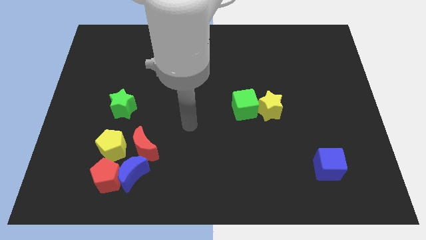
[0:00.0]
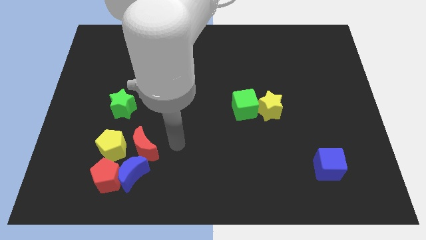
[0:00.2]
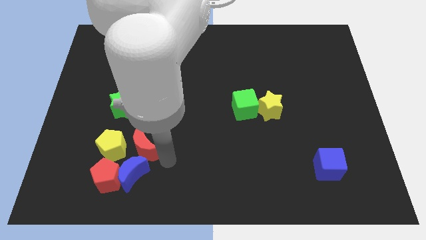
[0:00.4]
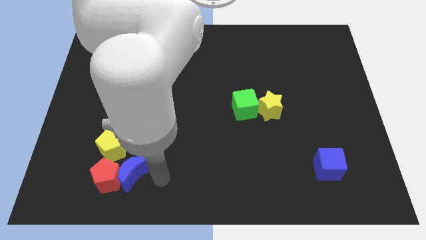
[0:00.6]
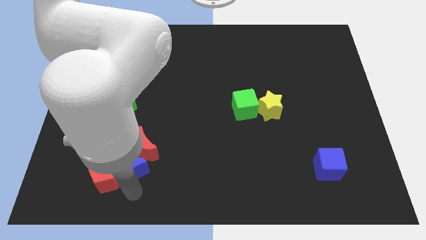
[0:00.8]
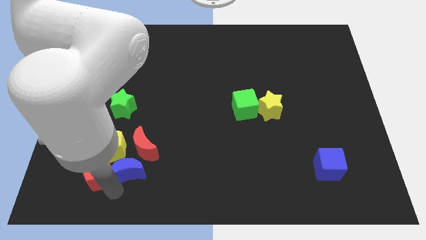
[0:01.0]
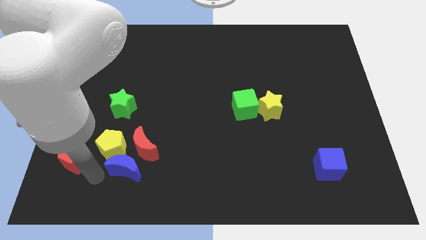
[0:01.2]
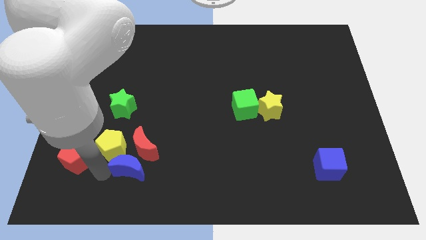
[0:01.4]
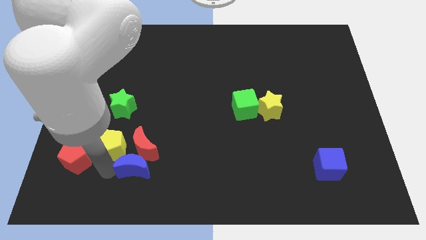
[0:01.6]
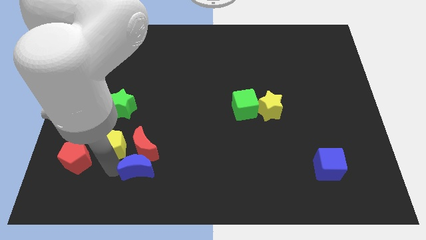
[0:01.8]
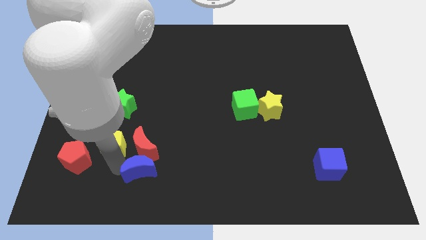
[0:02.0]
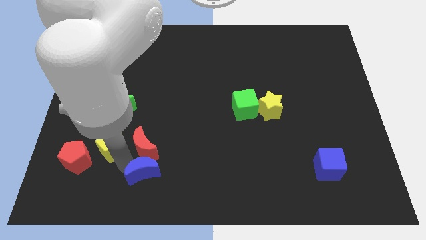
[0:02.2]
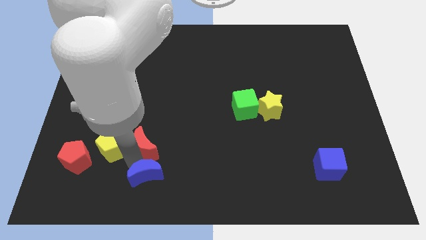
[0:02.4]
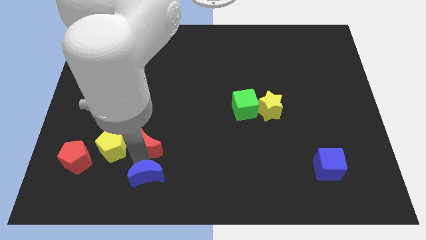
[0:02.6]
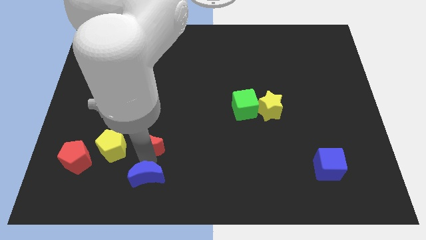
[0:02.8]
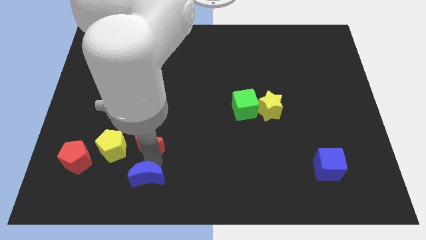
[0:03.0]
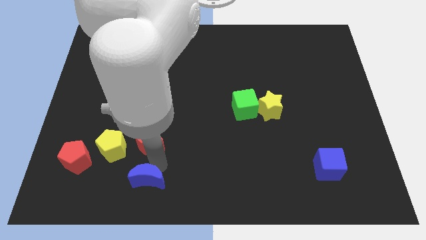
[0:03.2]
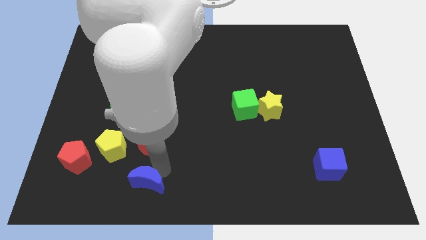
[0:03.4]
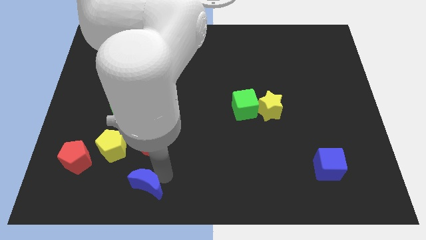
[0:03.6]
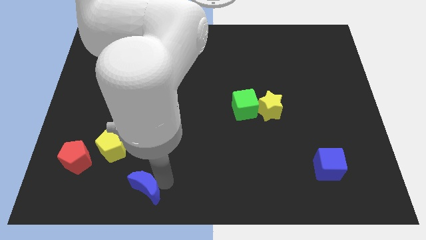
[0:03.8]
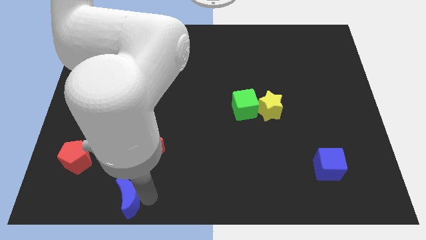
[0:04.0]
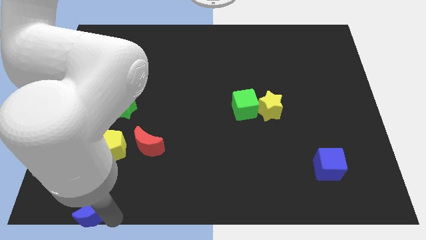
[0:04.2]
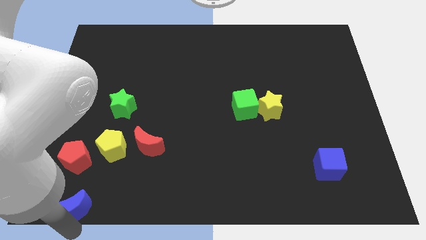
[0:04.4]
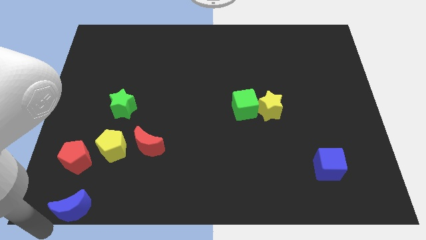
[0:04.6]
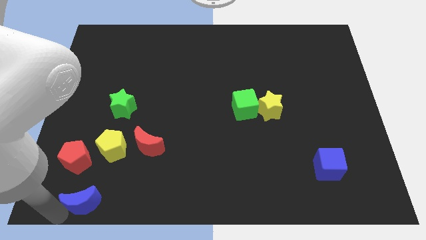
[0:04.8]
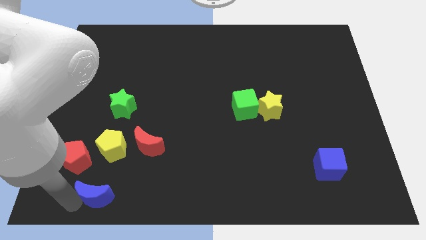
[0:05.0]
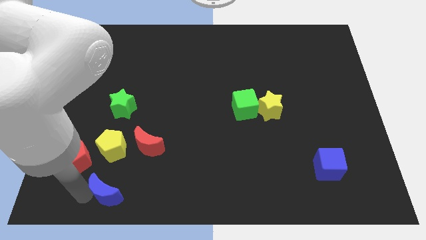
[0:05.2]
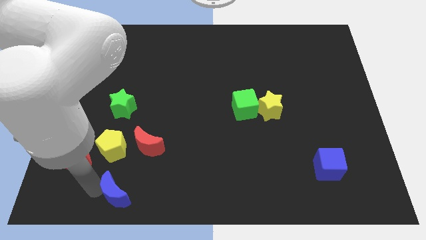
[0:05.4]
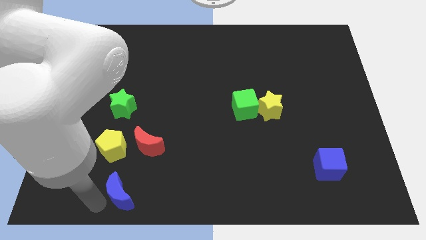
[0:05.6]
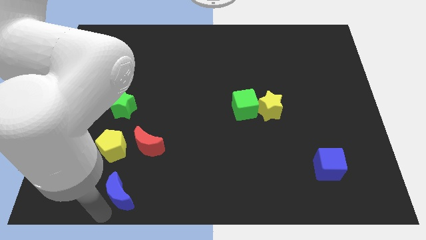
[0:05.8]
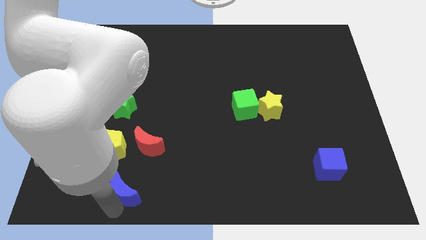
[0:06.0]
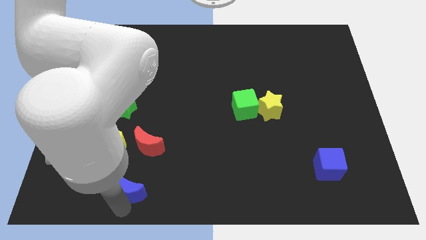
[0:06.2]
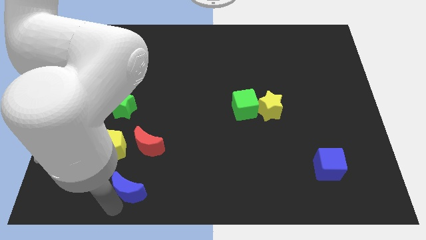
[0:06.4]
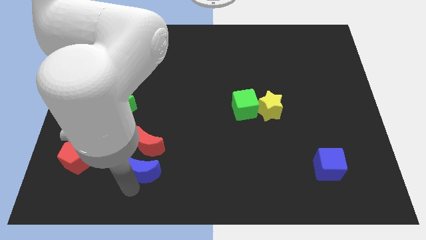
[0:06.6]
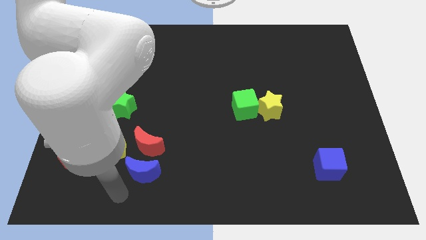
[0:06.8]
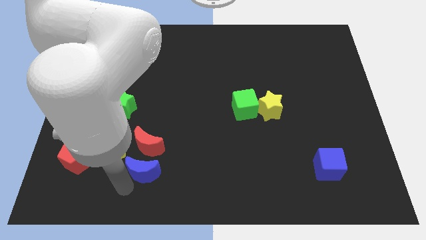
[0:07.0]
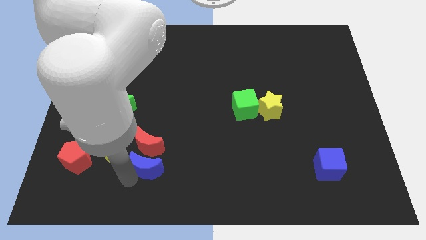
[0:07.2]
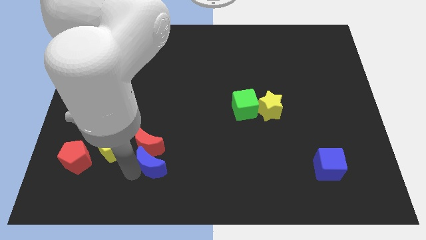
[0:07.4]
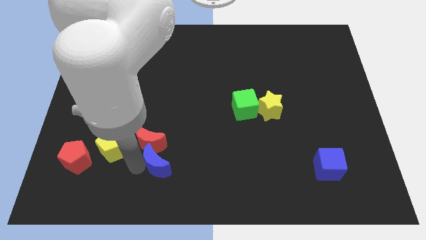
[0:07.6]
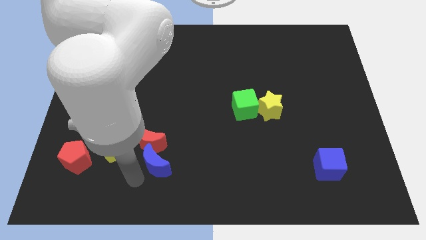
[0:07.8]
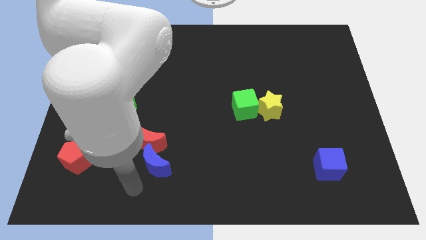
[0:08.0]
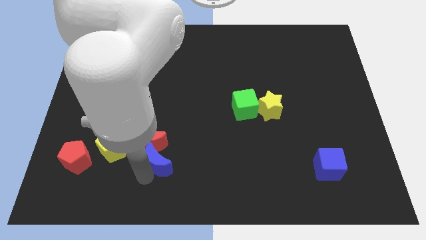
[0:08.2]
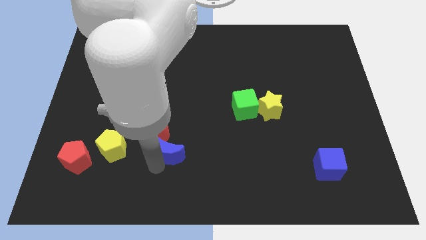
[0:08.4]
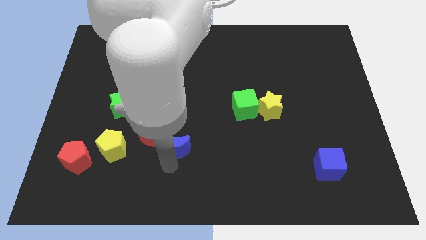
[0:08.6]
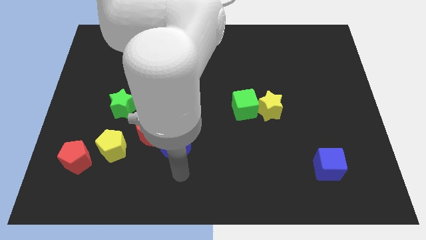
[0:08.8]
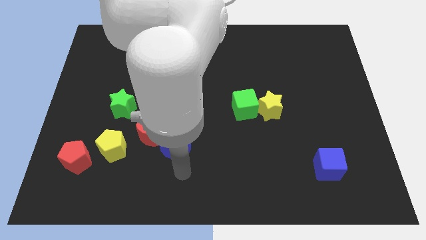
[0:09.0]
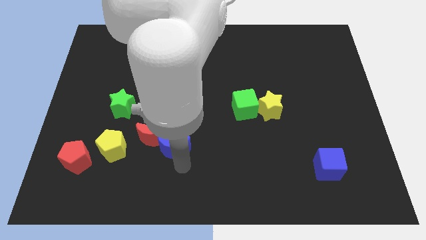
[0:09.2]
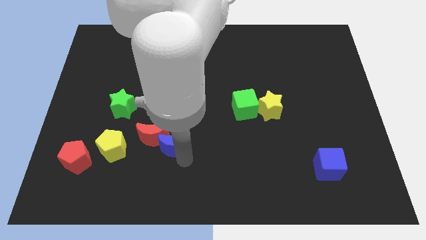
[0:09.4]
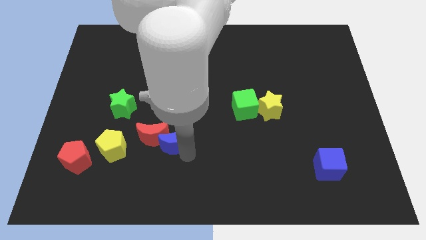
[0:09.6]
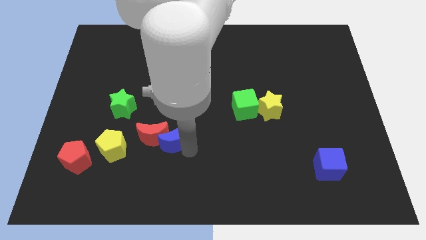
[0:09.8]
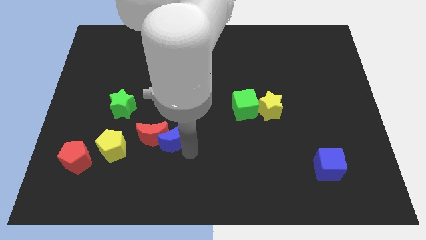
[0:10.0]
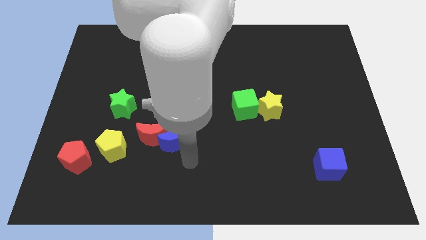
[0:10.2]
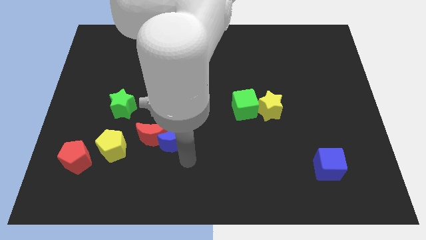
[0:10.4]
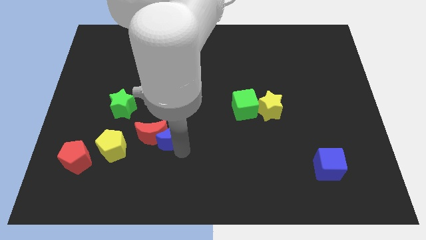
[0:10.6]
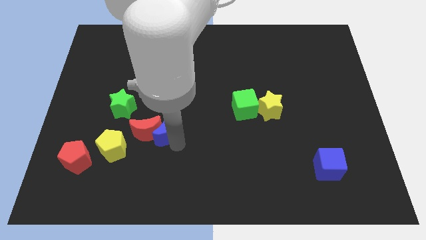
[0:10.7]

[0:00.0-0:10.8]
slide the blue moon somewhat up

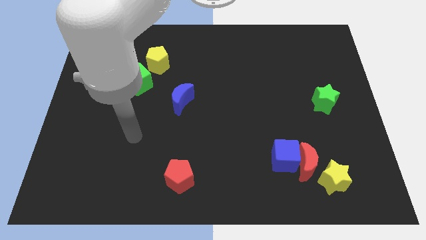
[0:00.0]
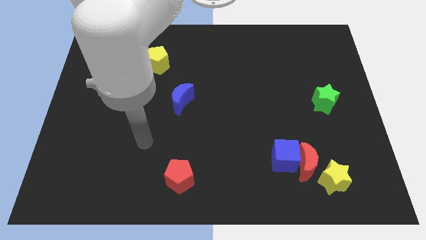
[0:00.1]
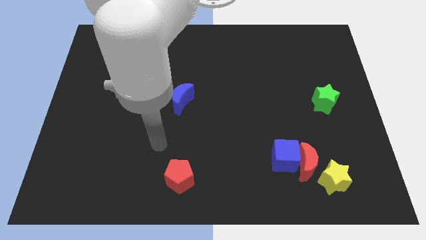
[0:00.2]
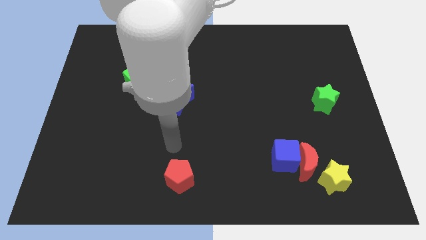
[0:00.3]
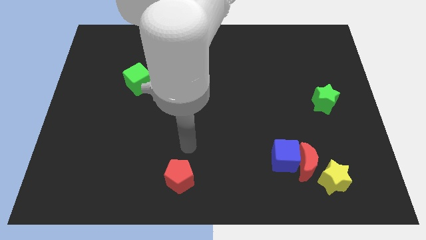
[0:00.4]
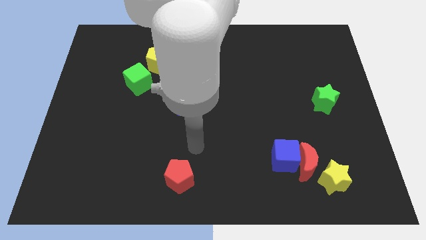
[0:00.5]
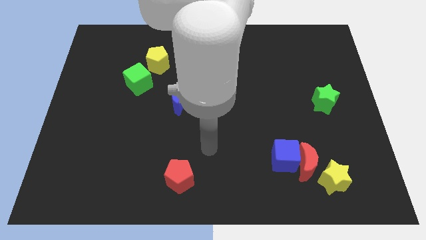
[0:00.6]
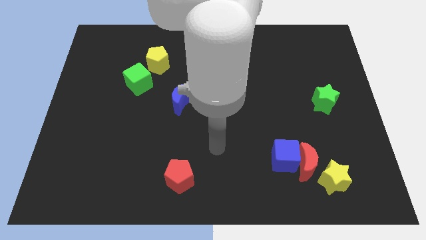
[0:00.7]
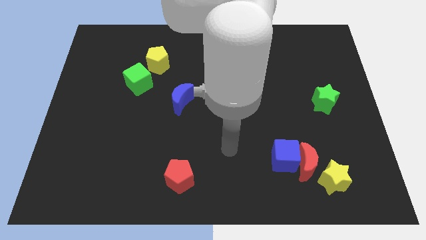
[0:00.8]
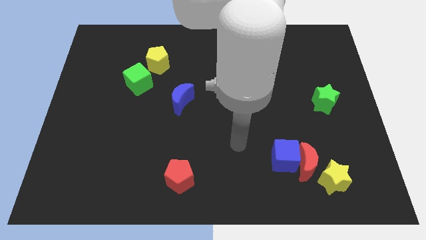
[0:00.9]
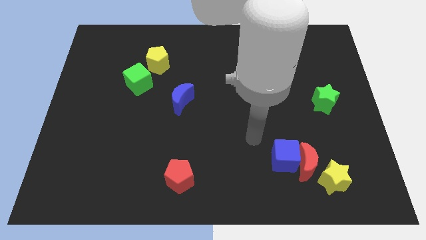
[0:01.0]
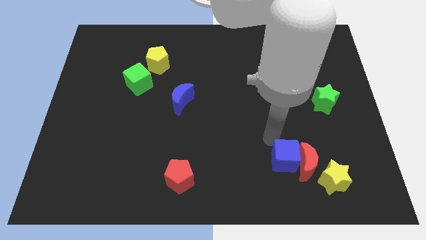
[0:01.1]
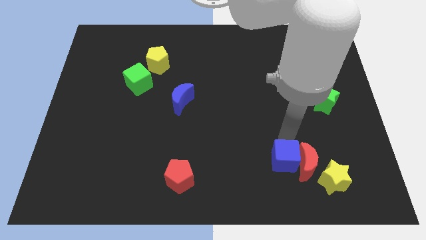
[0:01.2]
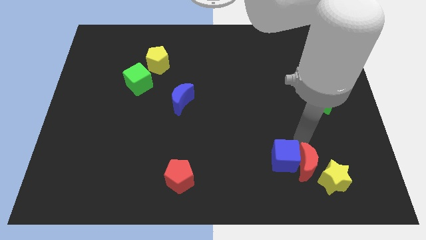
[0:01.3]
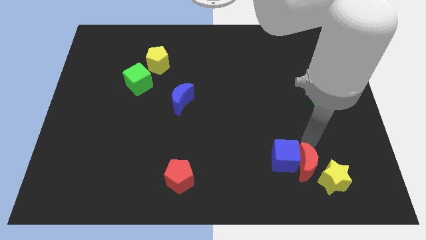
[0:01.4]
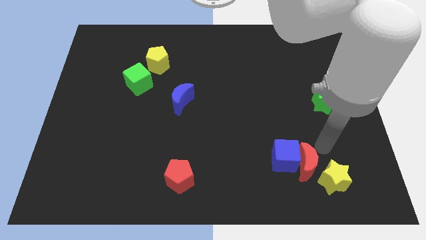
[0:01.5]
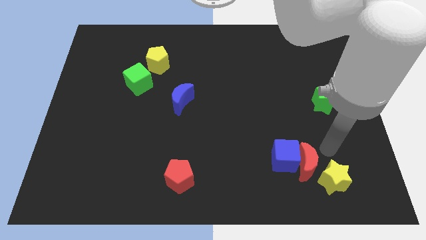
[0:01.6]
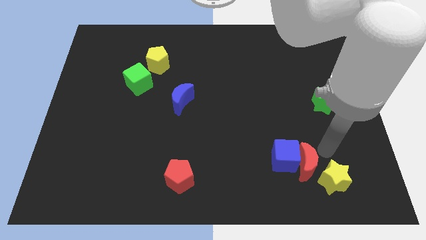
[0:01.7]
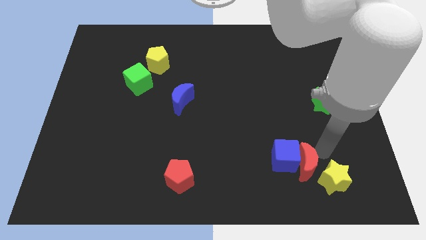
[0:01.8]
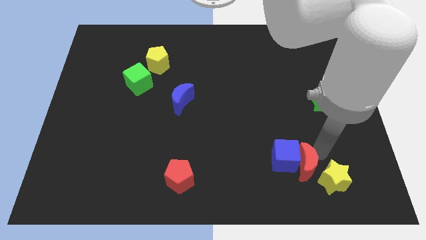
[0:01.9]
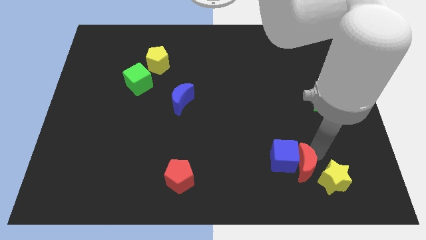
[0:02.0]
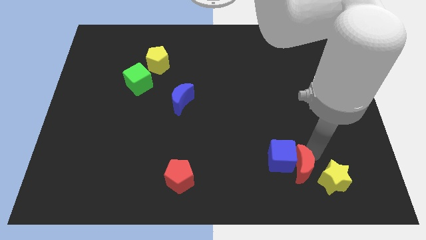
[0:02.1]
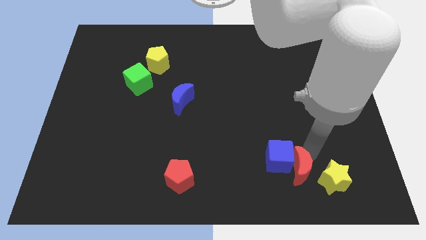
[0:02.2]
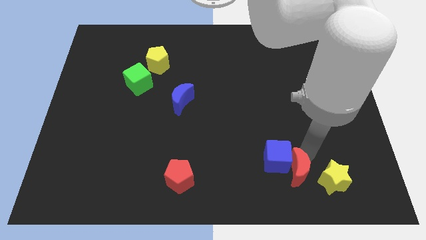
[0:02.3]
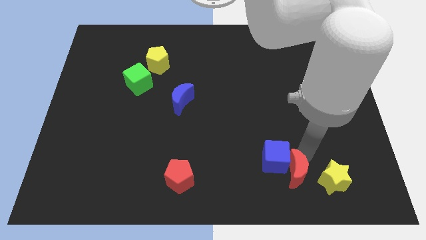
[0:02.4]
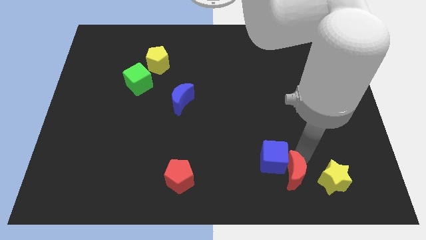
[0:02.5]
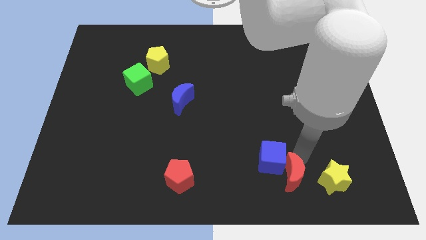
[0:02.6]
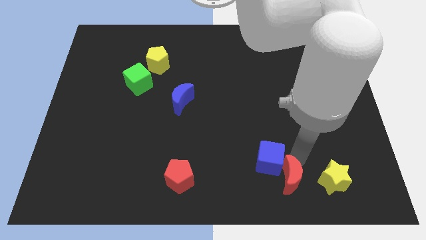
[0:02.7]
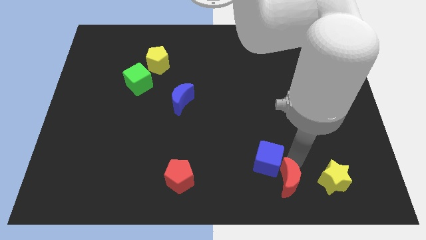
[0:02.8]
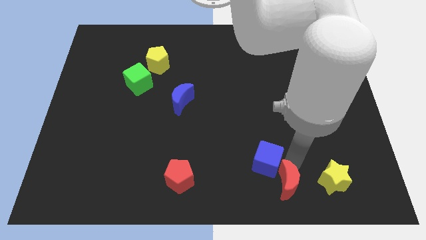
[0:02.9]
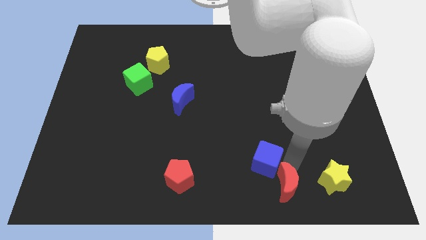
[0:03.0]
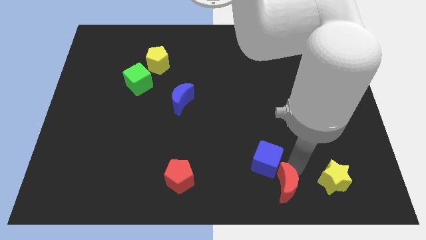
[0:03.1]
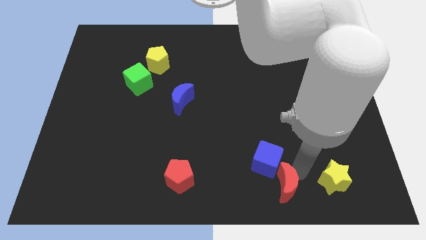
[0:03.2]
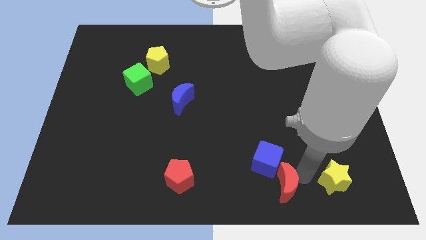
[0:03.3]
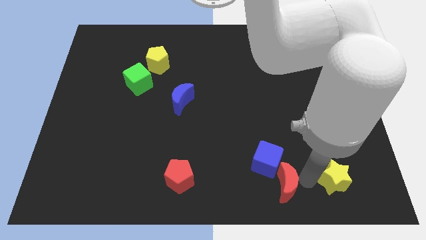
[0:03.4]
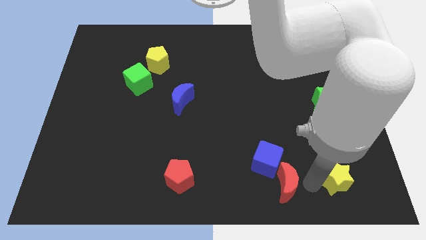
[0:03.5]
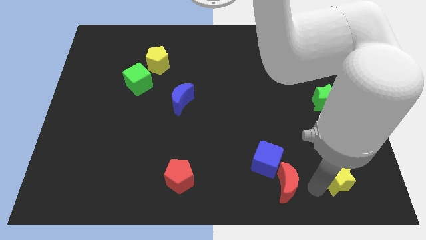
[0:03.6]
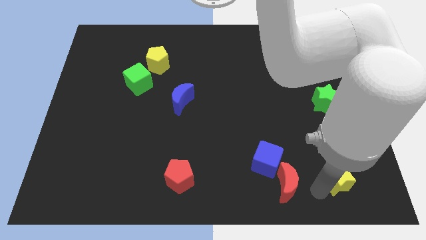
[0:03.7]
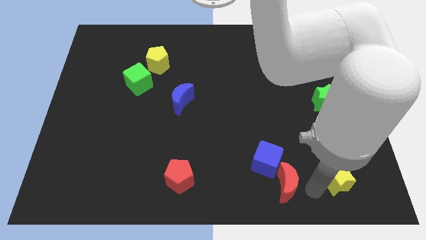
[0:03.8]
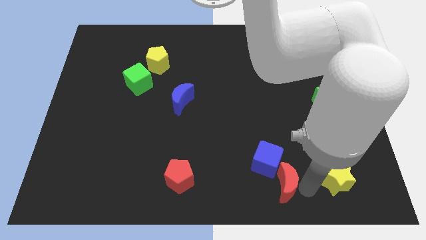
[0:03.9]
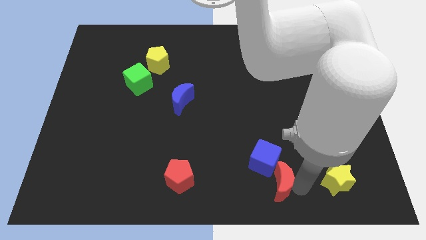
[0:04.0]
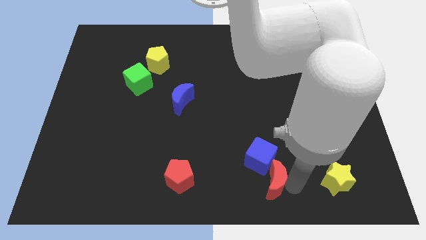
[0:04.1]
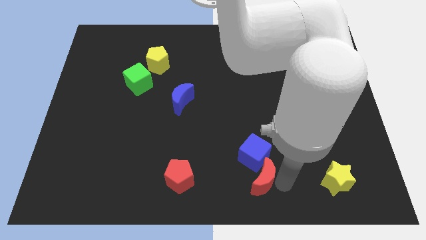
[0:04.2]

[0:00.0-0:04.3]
move the red moon left slightly
